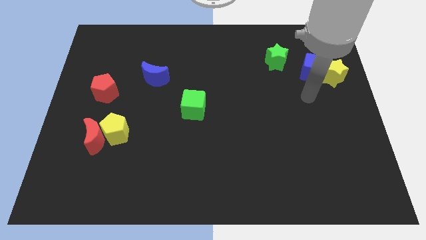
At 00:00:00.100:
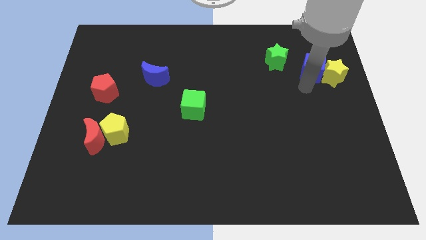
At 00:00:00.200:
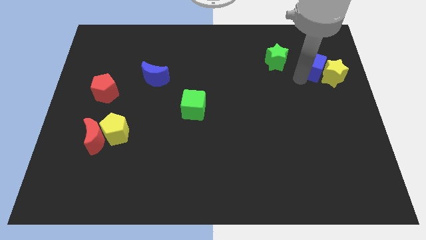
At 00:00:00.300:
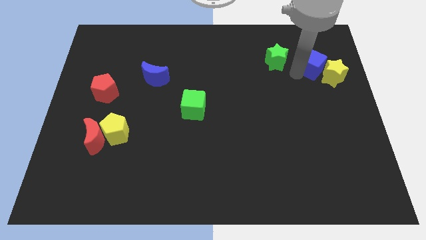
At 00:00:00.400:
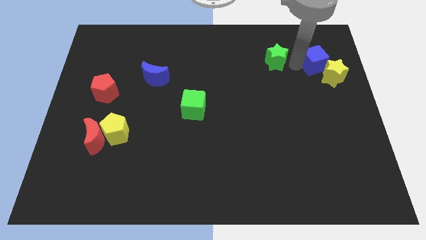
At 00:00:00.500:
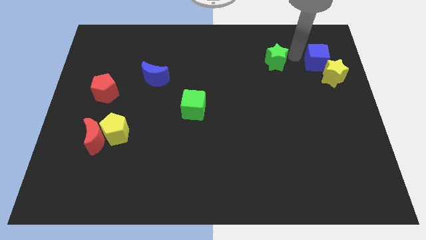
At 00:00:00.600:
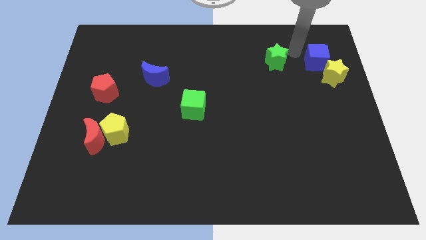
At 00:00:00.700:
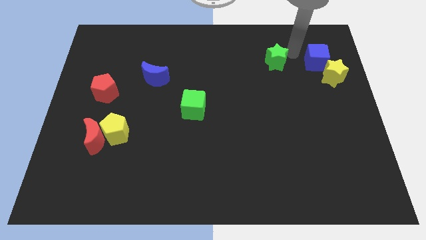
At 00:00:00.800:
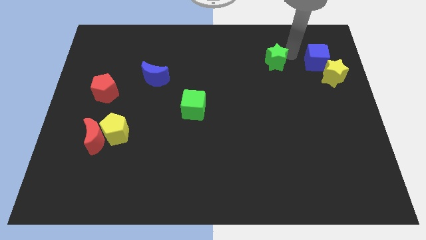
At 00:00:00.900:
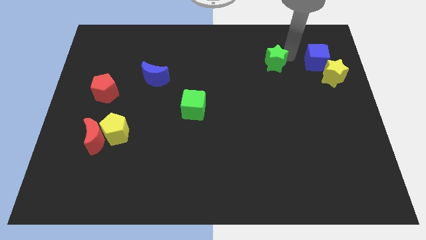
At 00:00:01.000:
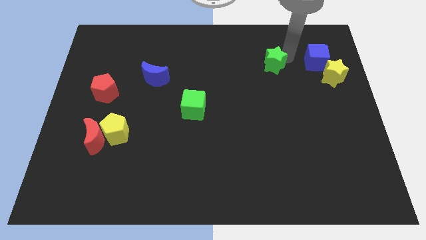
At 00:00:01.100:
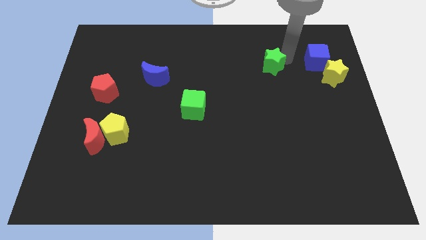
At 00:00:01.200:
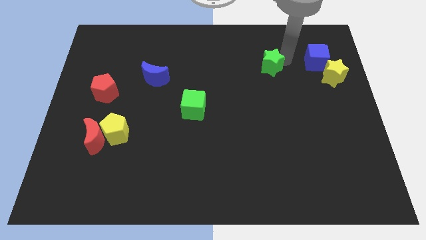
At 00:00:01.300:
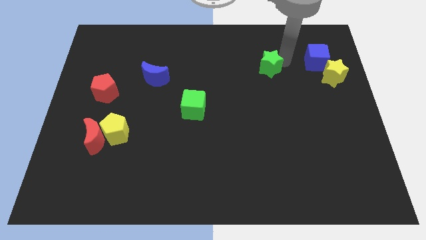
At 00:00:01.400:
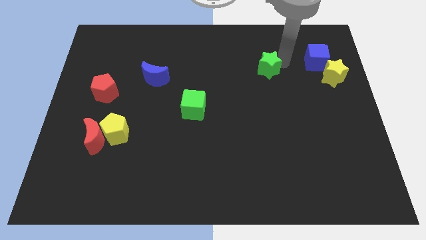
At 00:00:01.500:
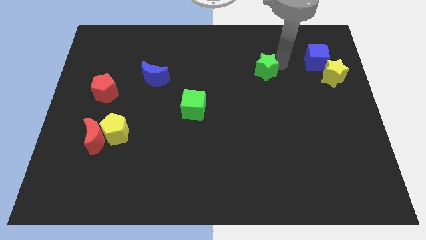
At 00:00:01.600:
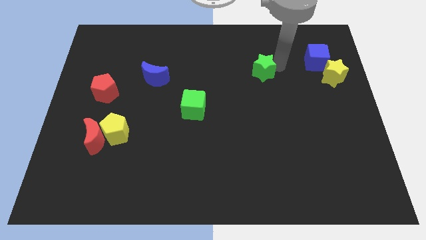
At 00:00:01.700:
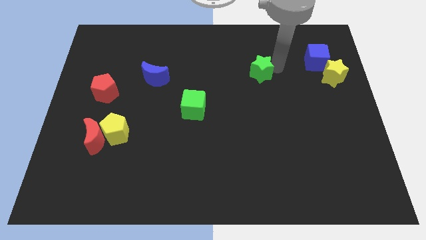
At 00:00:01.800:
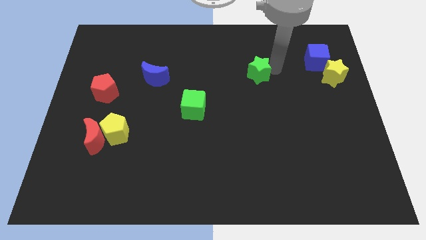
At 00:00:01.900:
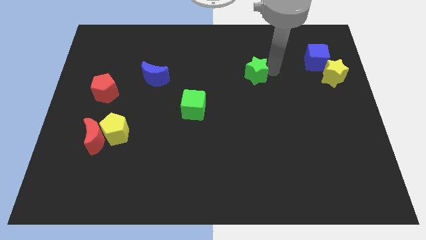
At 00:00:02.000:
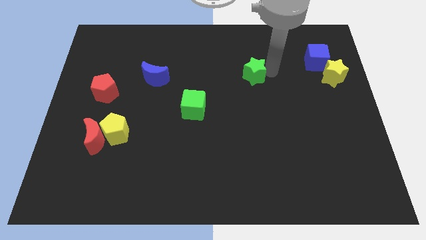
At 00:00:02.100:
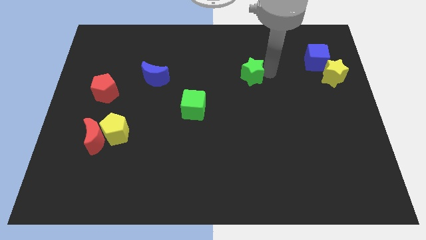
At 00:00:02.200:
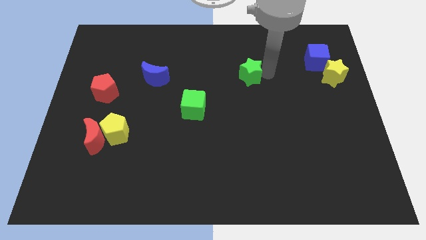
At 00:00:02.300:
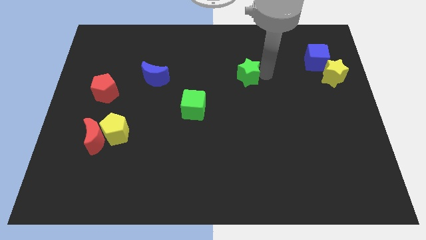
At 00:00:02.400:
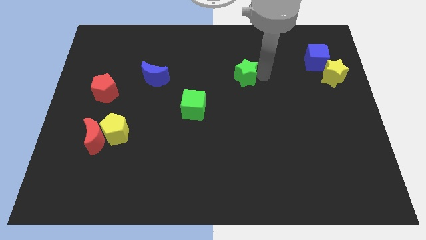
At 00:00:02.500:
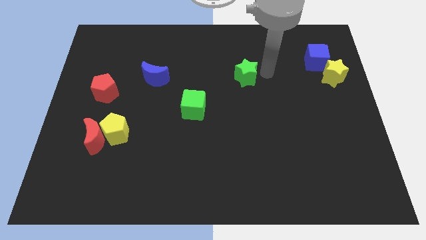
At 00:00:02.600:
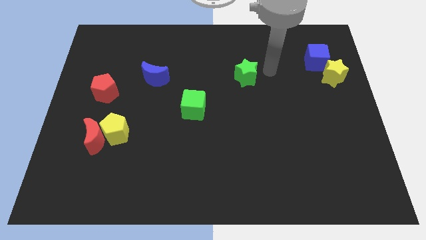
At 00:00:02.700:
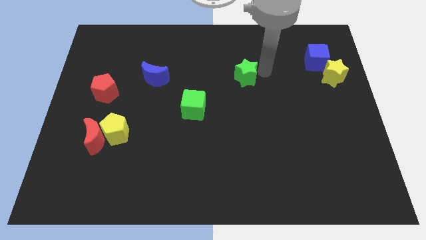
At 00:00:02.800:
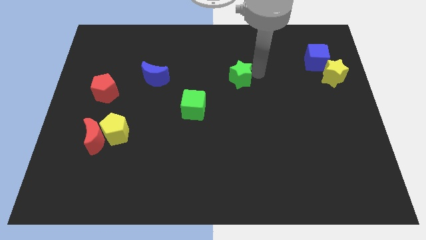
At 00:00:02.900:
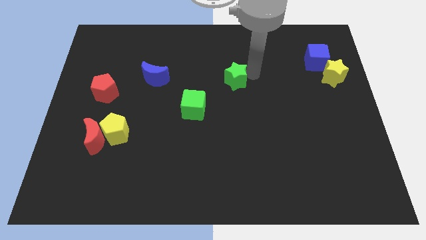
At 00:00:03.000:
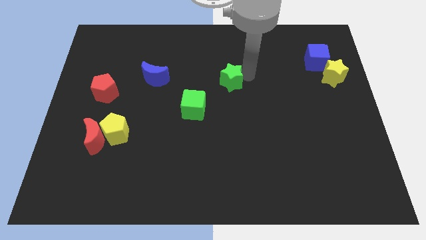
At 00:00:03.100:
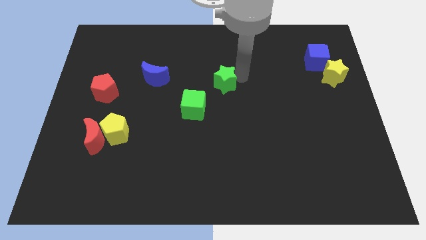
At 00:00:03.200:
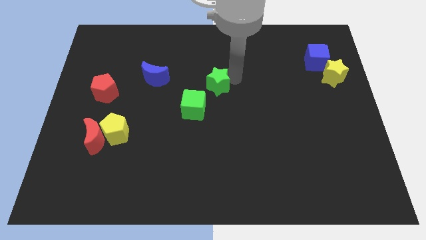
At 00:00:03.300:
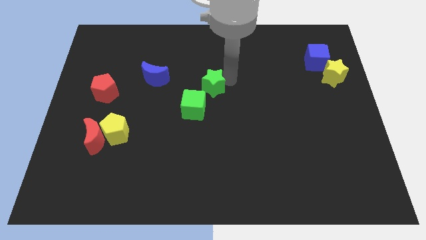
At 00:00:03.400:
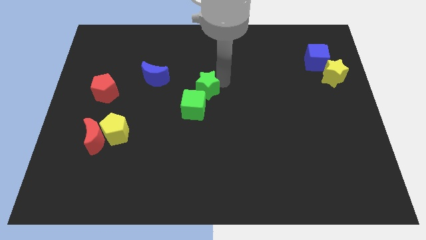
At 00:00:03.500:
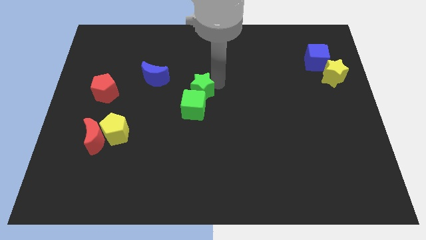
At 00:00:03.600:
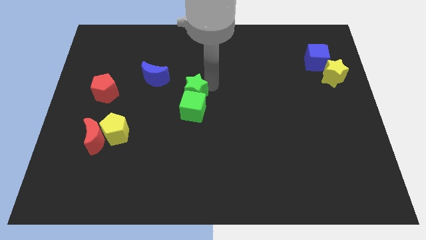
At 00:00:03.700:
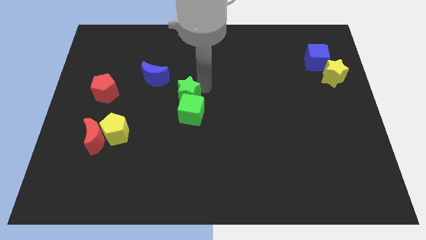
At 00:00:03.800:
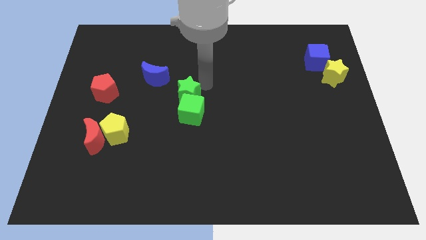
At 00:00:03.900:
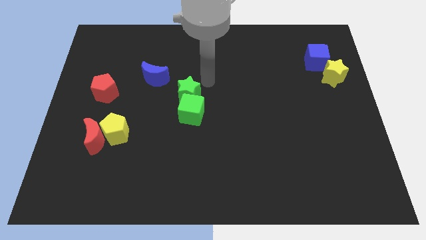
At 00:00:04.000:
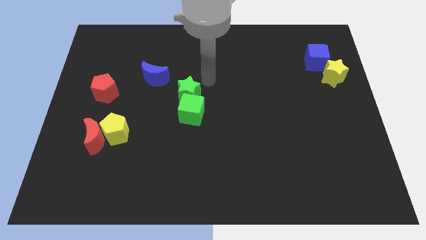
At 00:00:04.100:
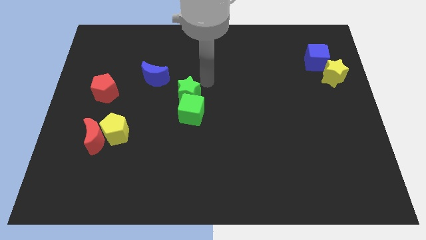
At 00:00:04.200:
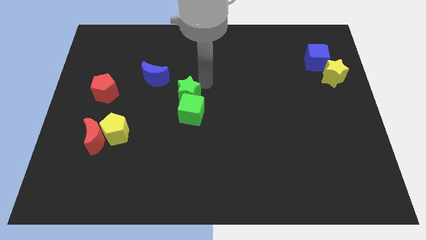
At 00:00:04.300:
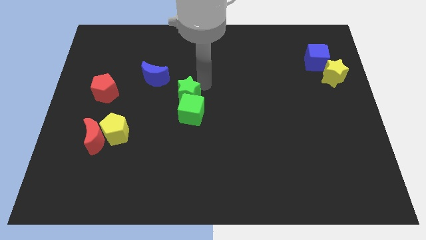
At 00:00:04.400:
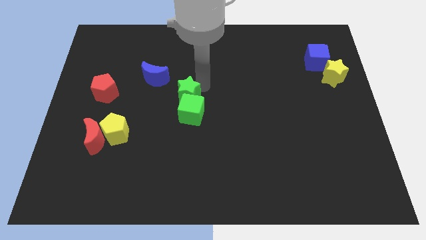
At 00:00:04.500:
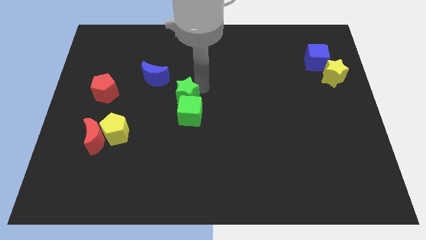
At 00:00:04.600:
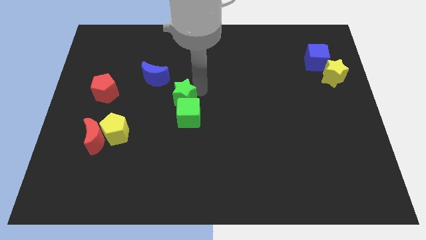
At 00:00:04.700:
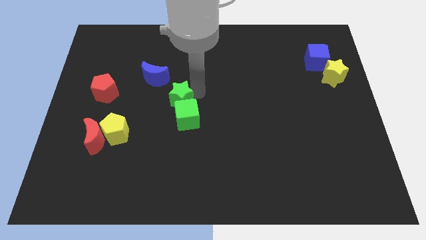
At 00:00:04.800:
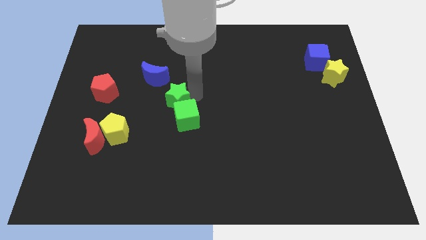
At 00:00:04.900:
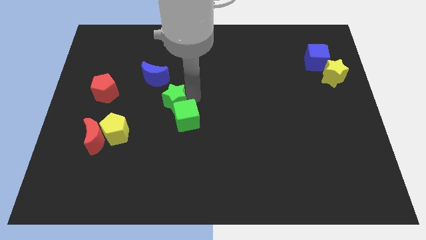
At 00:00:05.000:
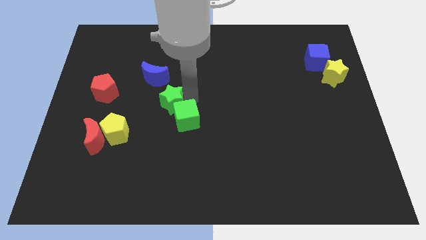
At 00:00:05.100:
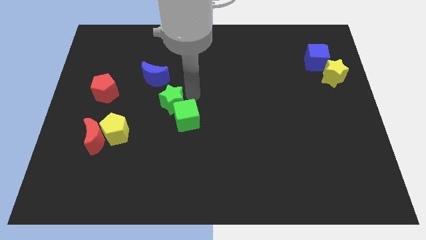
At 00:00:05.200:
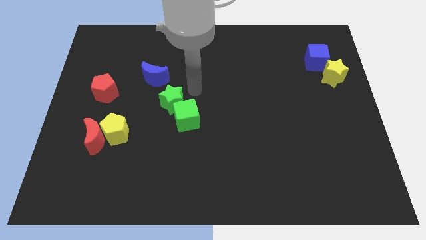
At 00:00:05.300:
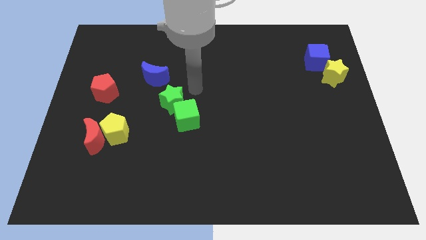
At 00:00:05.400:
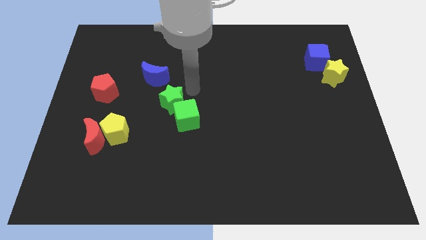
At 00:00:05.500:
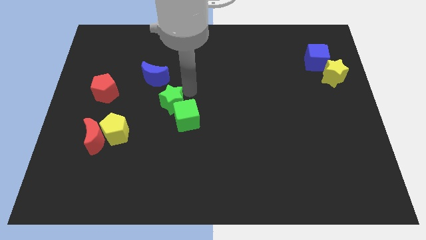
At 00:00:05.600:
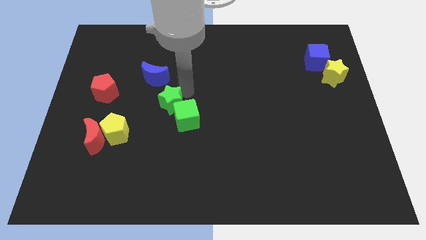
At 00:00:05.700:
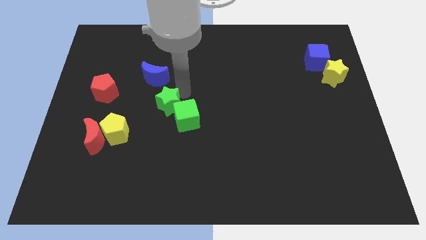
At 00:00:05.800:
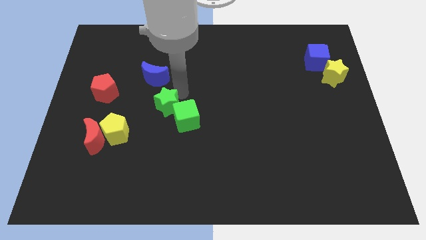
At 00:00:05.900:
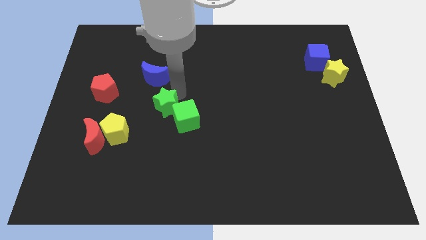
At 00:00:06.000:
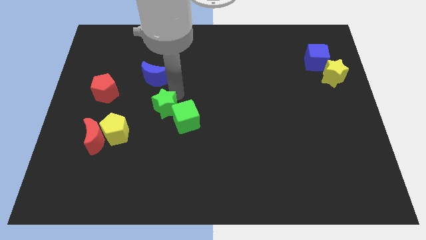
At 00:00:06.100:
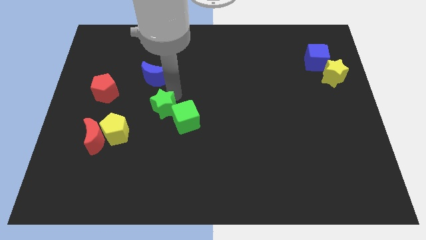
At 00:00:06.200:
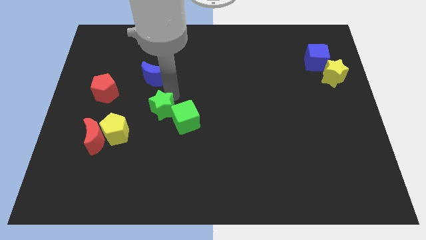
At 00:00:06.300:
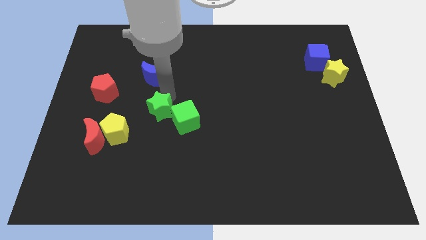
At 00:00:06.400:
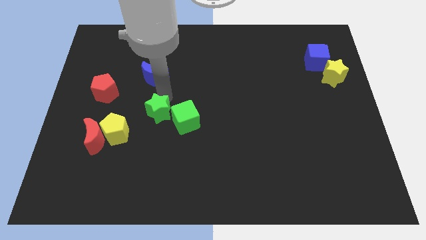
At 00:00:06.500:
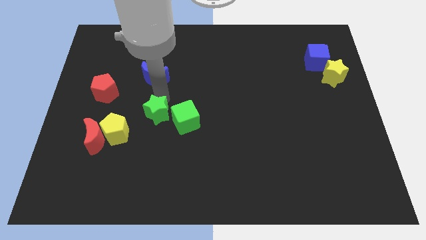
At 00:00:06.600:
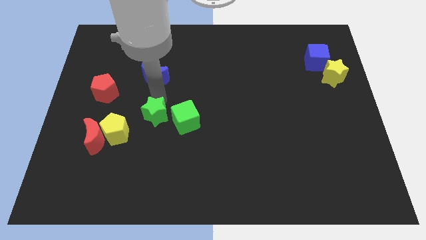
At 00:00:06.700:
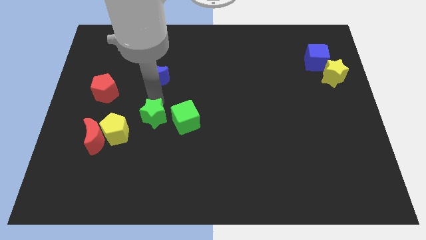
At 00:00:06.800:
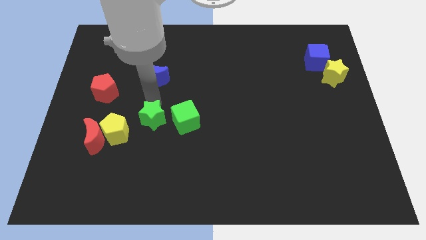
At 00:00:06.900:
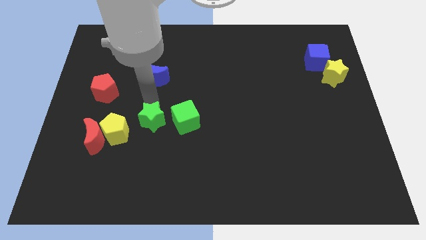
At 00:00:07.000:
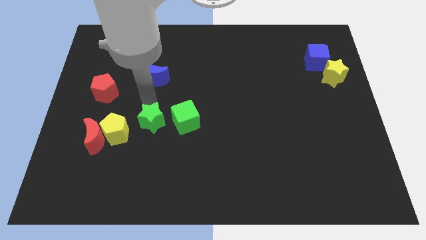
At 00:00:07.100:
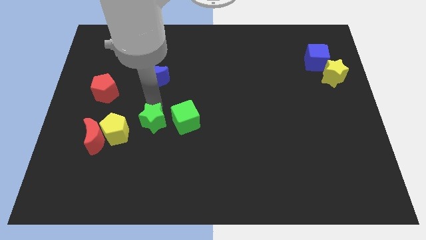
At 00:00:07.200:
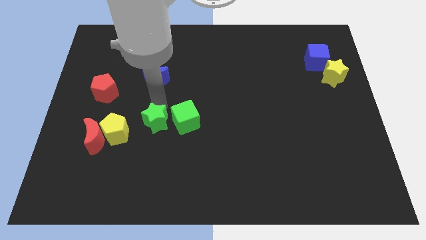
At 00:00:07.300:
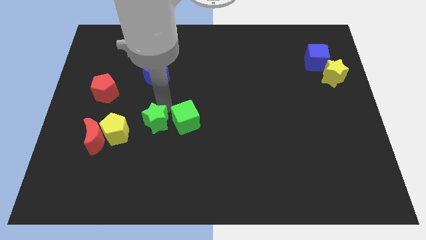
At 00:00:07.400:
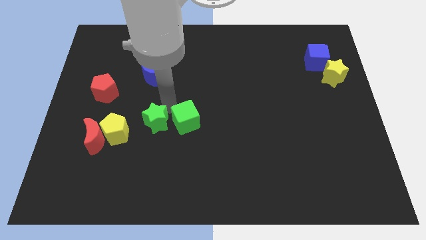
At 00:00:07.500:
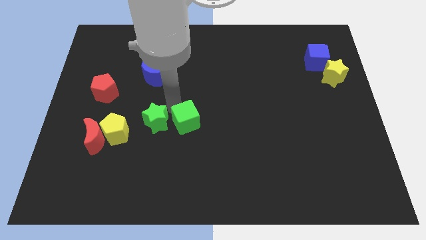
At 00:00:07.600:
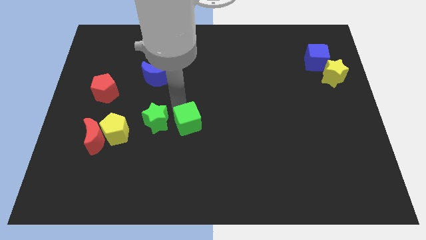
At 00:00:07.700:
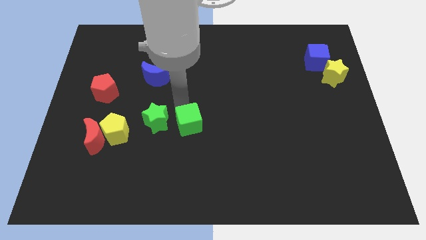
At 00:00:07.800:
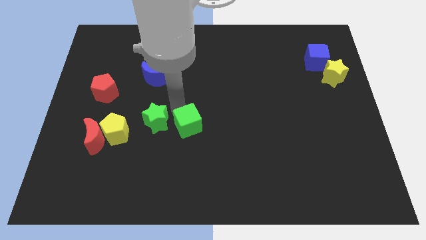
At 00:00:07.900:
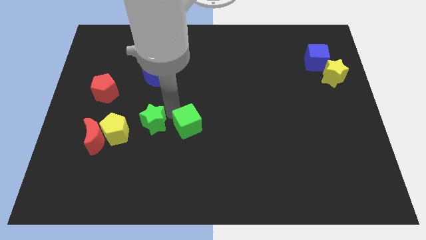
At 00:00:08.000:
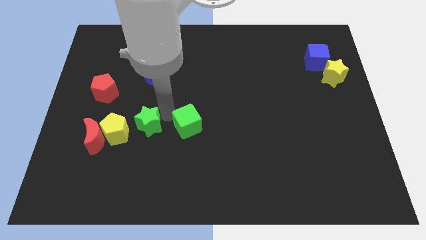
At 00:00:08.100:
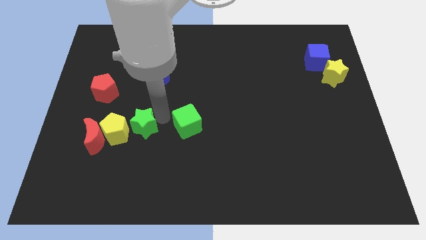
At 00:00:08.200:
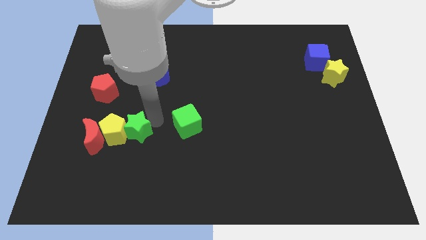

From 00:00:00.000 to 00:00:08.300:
put the green star towards the yellow pentagon
